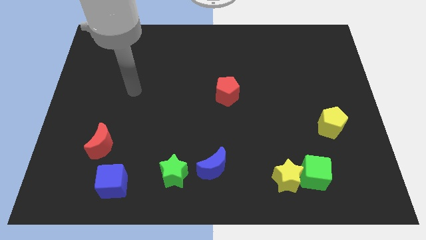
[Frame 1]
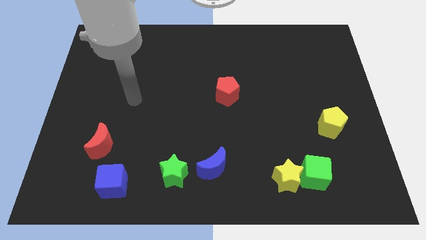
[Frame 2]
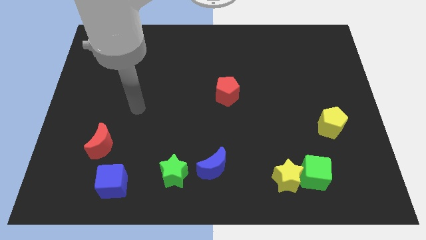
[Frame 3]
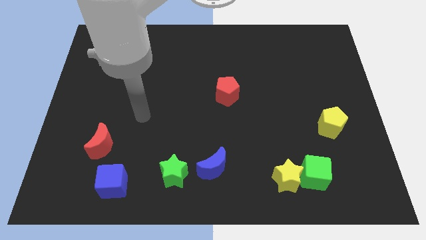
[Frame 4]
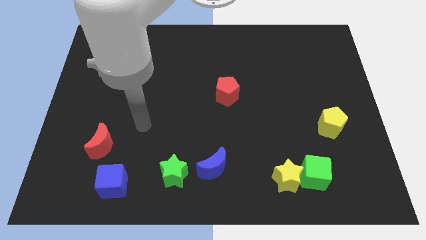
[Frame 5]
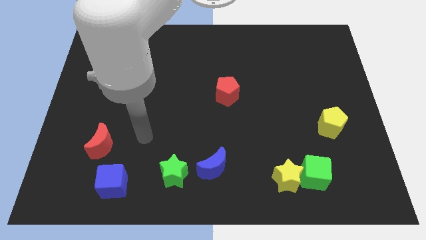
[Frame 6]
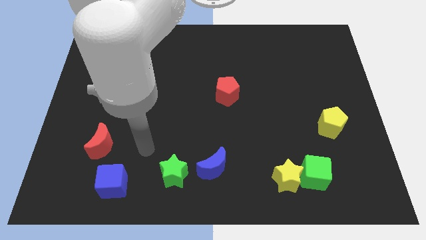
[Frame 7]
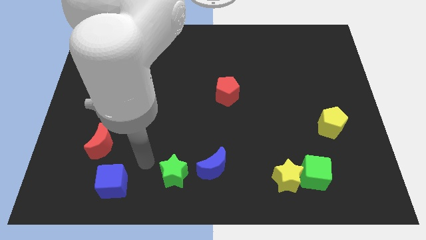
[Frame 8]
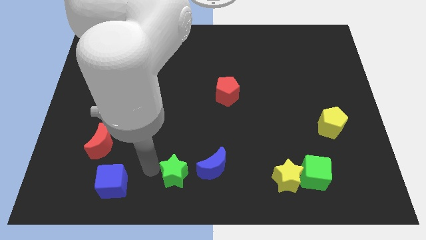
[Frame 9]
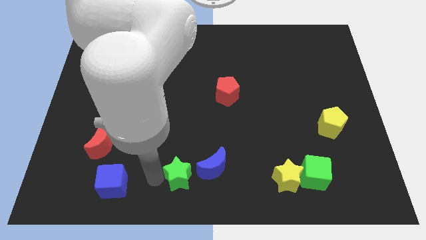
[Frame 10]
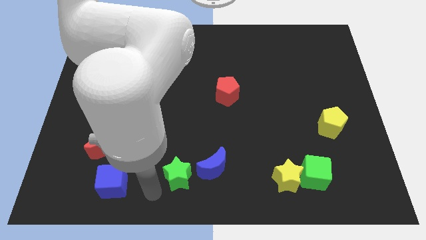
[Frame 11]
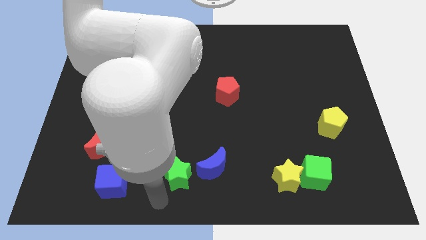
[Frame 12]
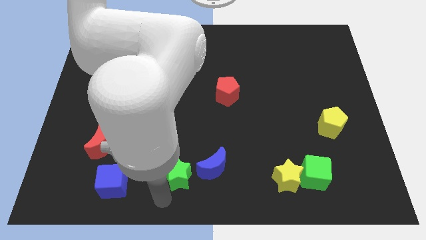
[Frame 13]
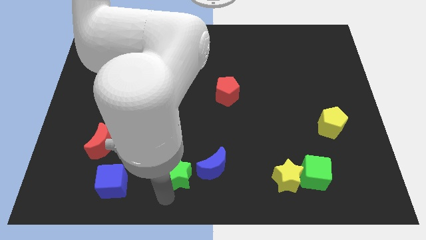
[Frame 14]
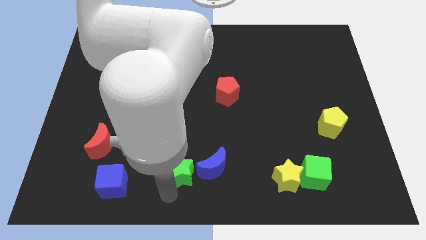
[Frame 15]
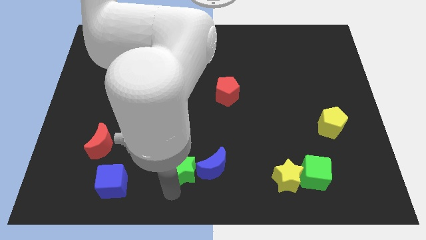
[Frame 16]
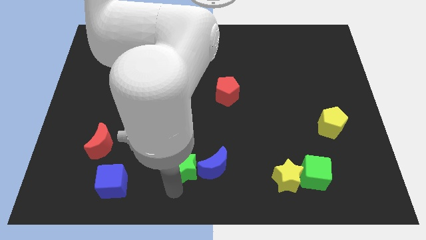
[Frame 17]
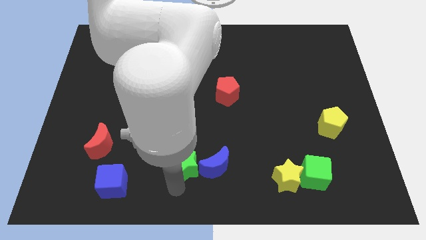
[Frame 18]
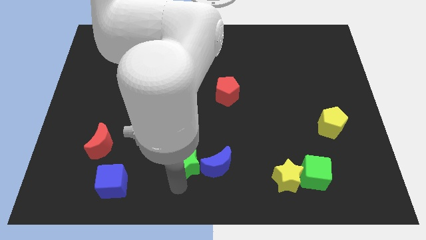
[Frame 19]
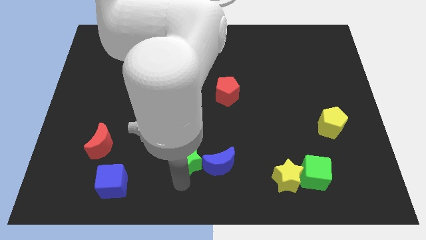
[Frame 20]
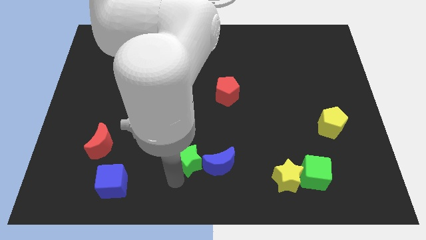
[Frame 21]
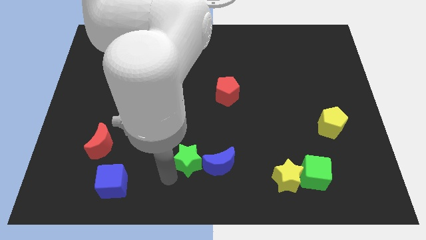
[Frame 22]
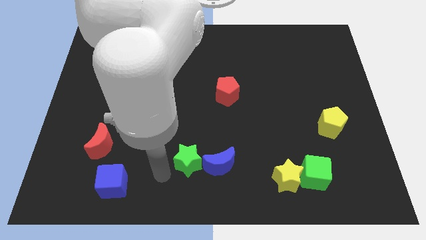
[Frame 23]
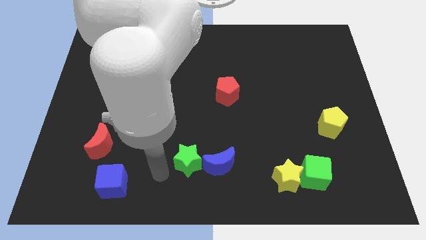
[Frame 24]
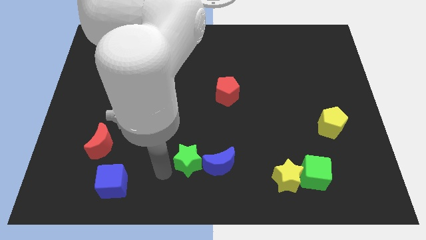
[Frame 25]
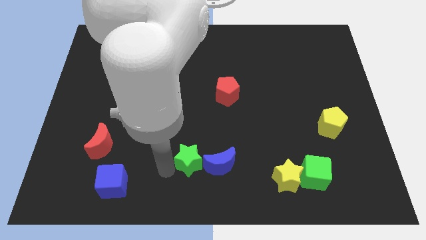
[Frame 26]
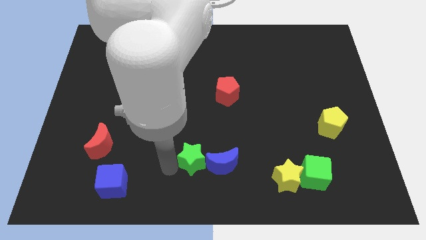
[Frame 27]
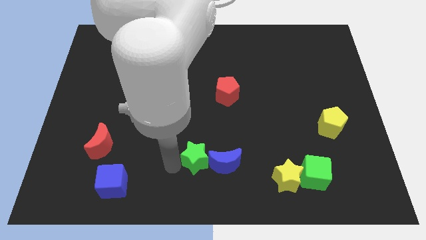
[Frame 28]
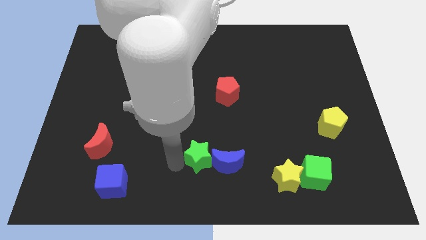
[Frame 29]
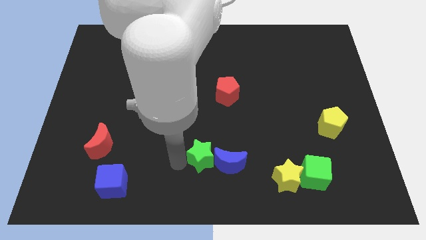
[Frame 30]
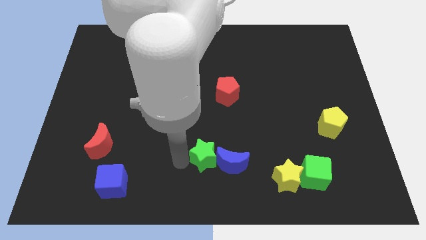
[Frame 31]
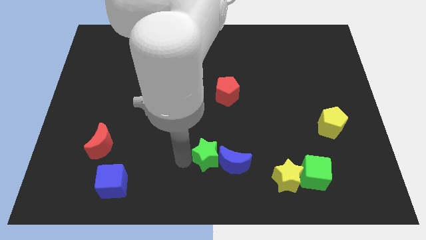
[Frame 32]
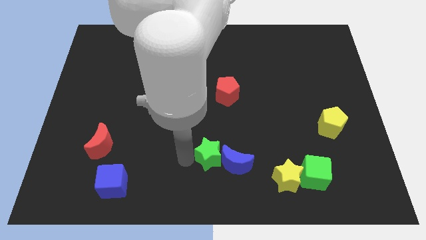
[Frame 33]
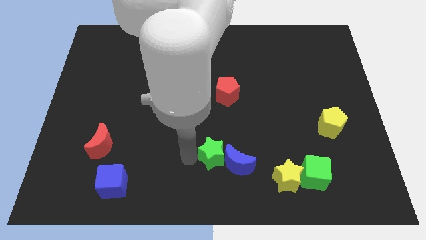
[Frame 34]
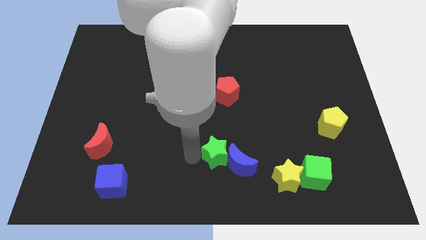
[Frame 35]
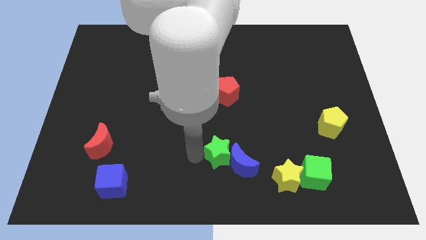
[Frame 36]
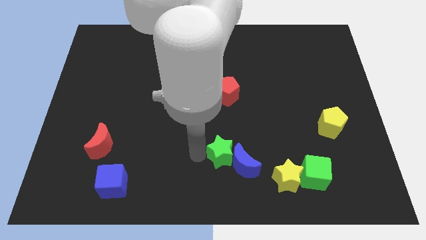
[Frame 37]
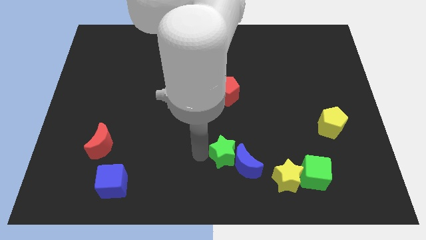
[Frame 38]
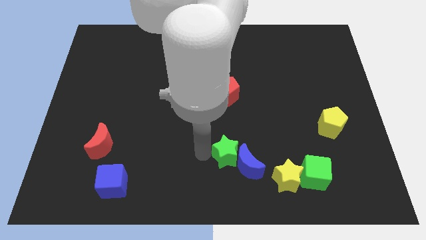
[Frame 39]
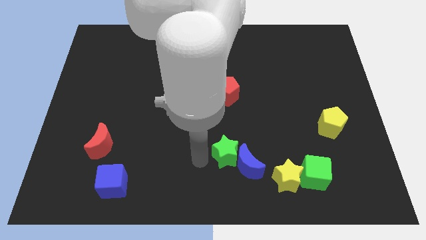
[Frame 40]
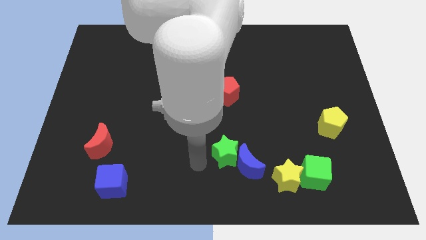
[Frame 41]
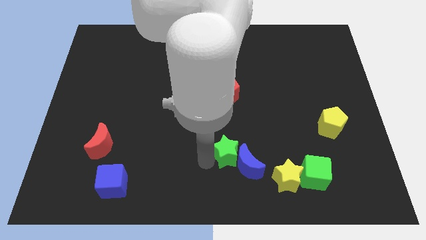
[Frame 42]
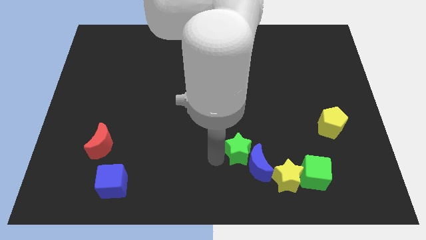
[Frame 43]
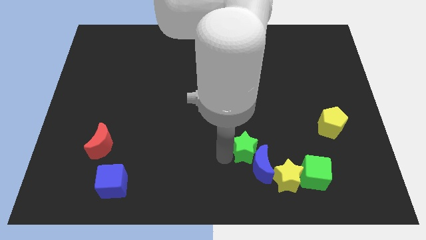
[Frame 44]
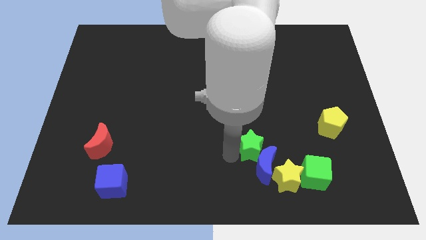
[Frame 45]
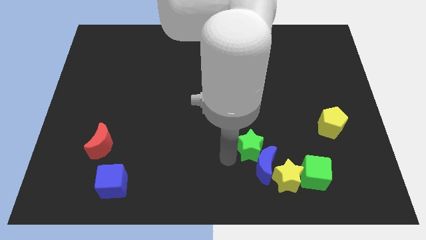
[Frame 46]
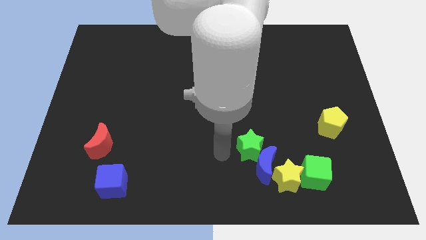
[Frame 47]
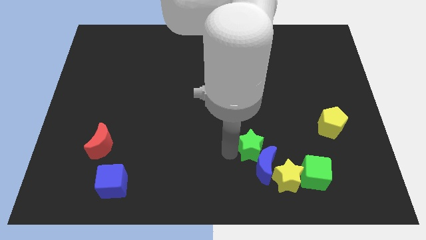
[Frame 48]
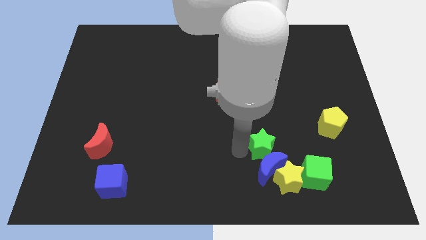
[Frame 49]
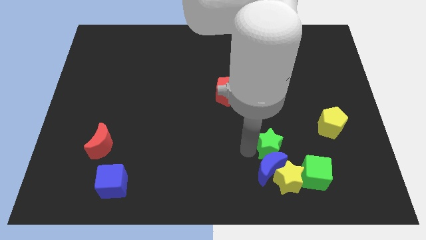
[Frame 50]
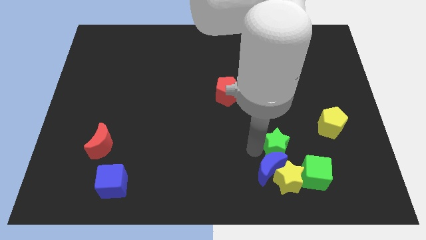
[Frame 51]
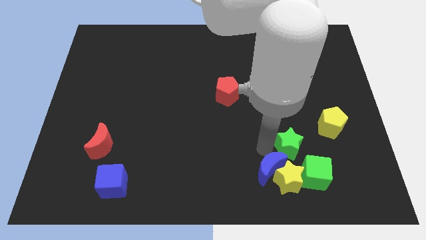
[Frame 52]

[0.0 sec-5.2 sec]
push the green star to the bottom left side of the yellow pentagon

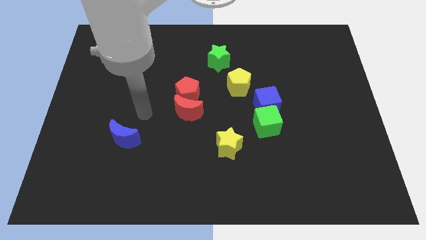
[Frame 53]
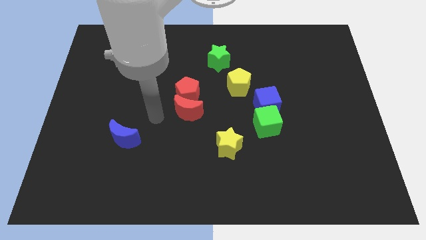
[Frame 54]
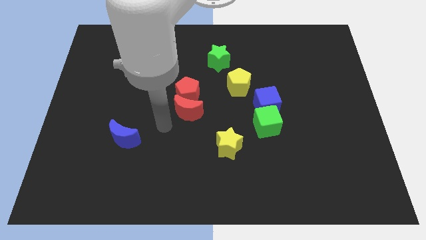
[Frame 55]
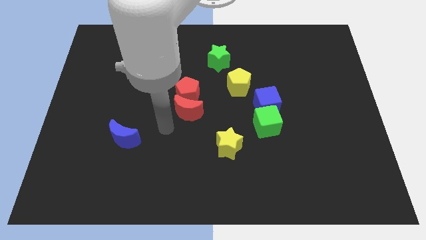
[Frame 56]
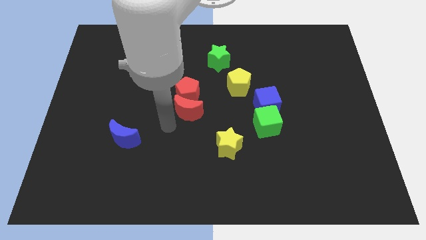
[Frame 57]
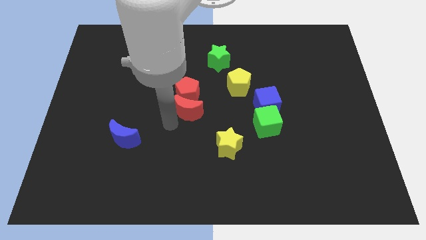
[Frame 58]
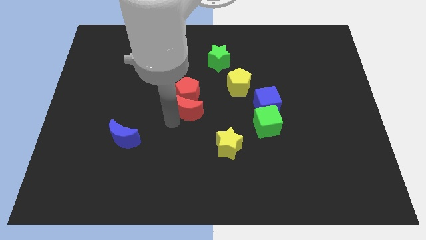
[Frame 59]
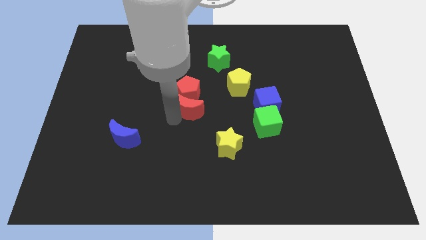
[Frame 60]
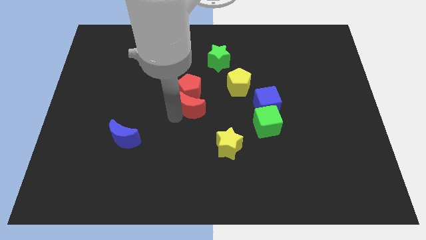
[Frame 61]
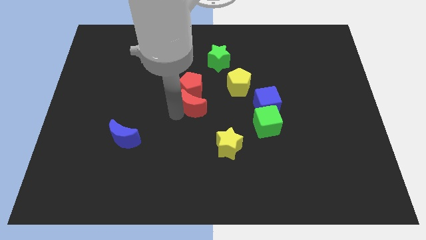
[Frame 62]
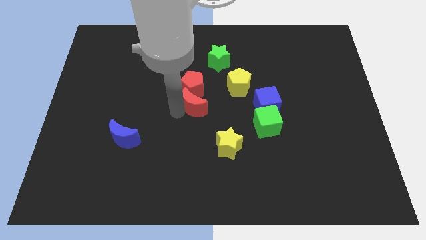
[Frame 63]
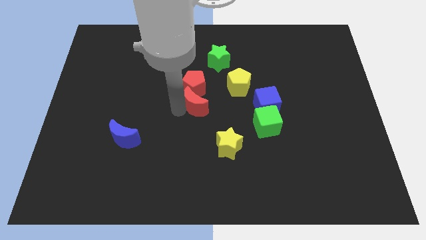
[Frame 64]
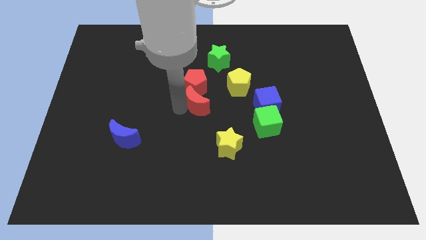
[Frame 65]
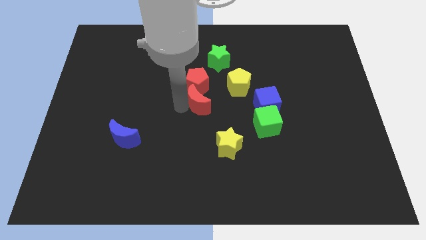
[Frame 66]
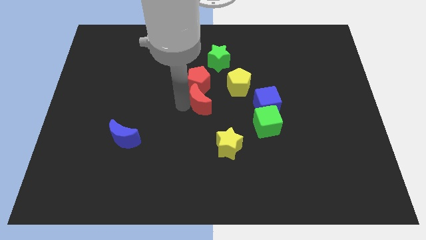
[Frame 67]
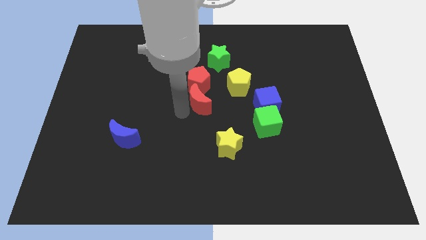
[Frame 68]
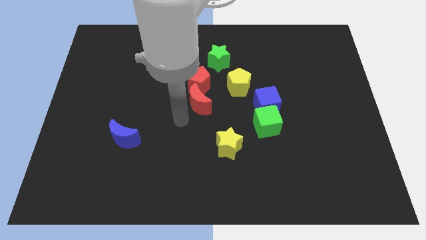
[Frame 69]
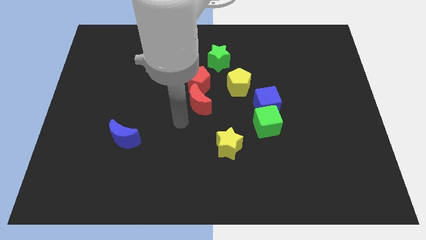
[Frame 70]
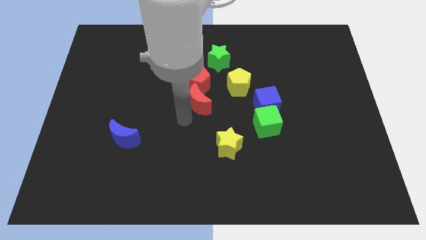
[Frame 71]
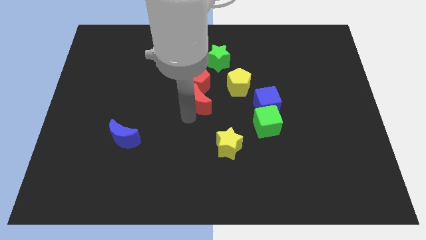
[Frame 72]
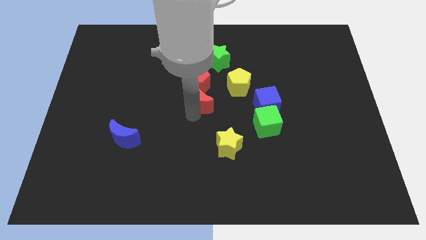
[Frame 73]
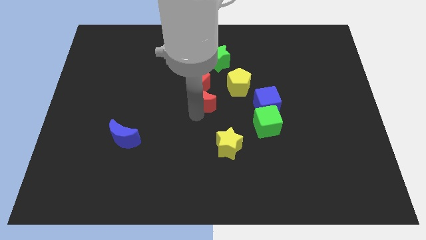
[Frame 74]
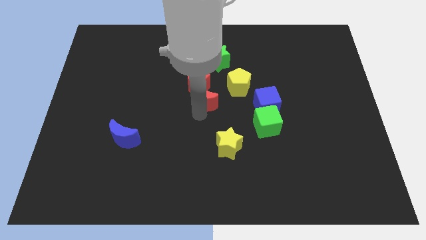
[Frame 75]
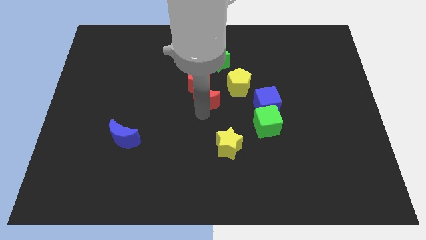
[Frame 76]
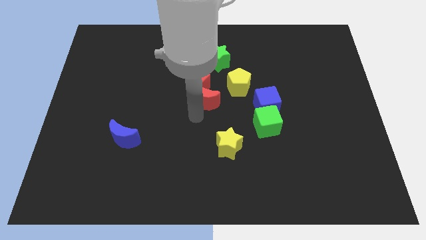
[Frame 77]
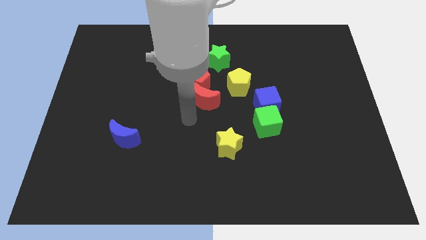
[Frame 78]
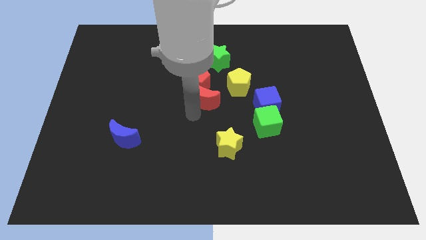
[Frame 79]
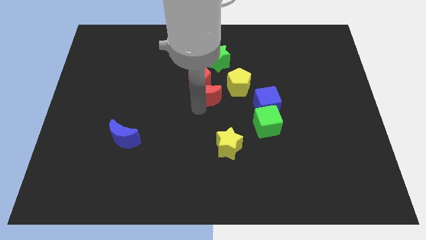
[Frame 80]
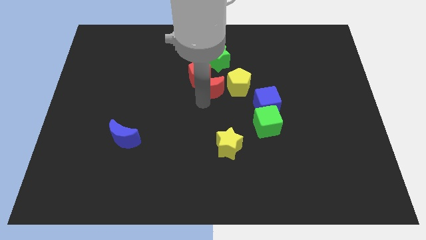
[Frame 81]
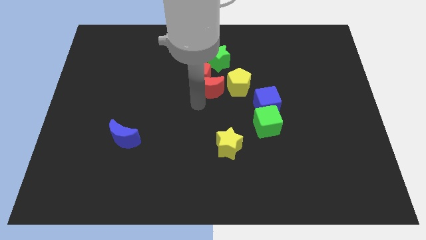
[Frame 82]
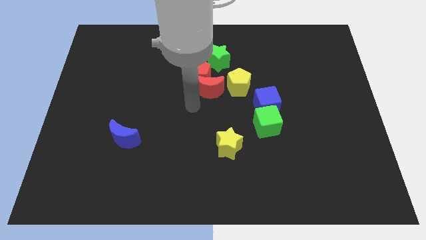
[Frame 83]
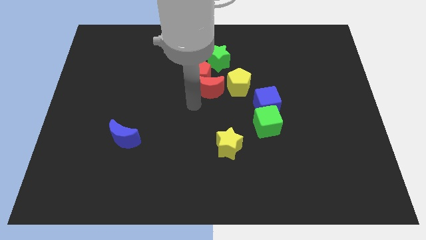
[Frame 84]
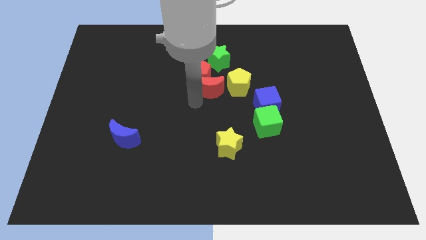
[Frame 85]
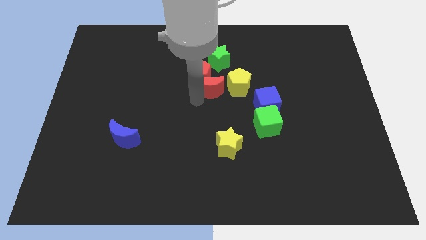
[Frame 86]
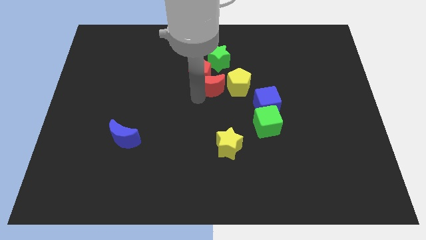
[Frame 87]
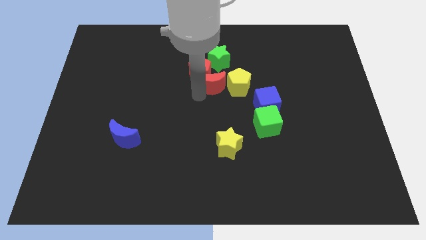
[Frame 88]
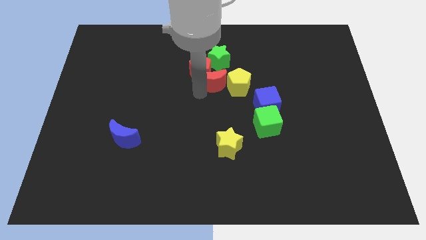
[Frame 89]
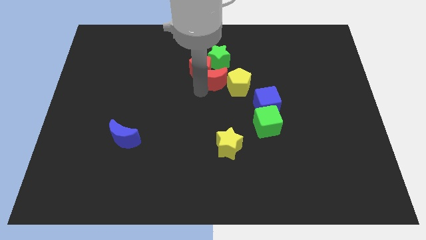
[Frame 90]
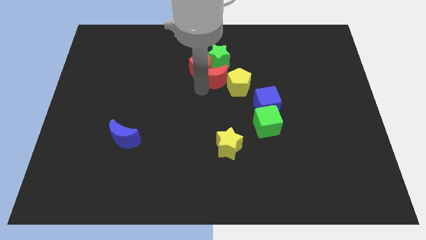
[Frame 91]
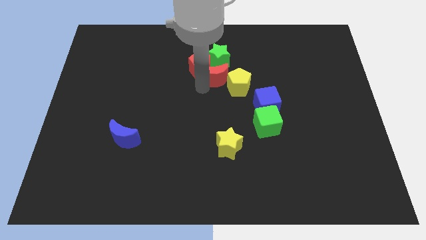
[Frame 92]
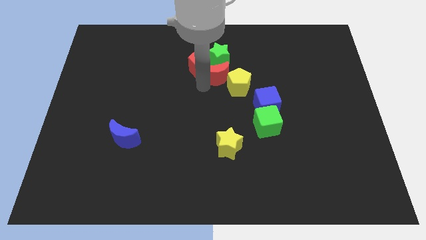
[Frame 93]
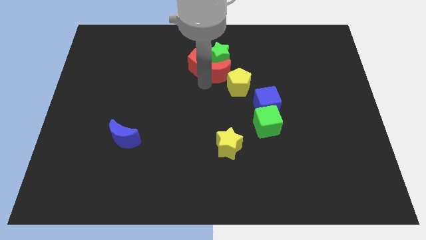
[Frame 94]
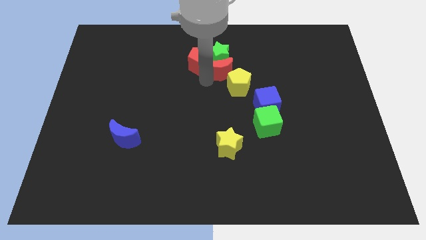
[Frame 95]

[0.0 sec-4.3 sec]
slide the red moon to the top side of the yellow pentagon
